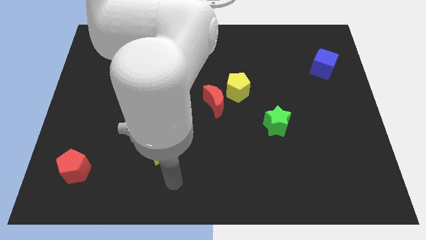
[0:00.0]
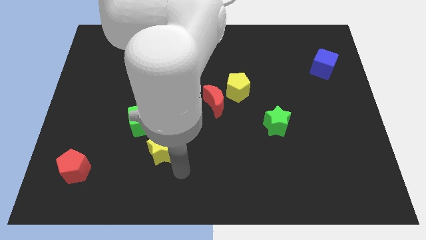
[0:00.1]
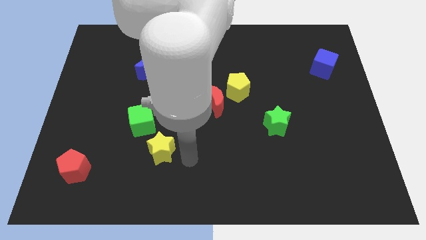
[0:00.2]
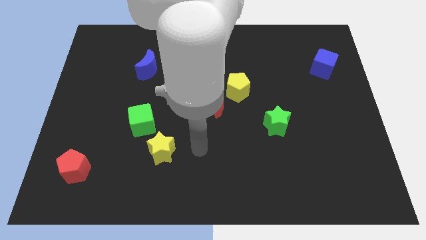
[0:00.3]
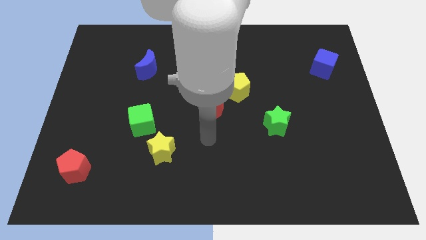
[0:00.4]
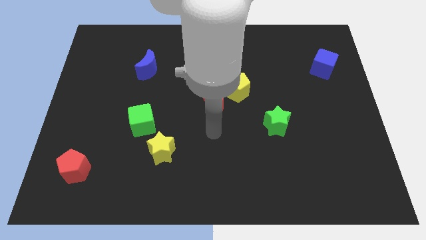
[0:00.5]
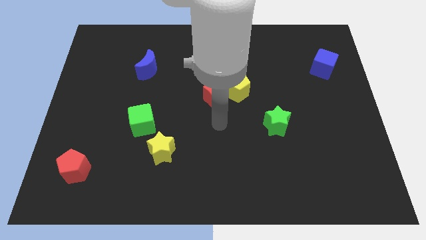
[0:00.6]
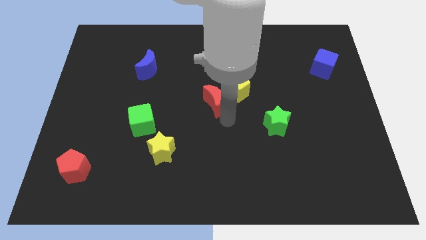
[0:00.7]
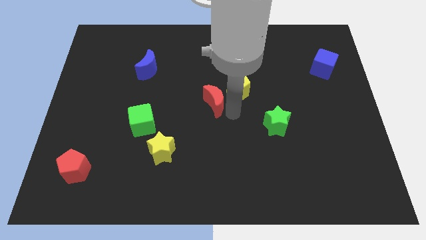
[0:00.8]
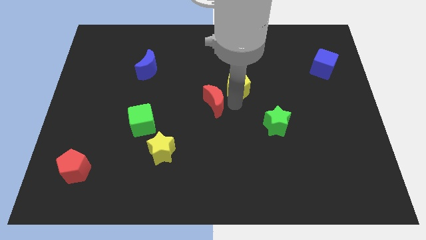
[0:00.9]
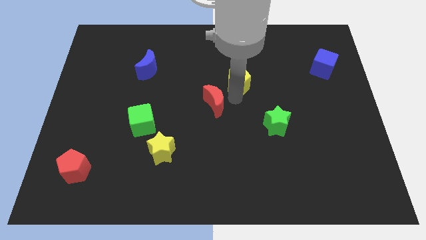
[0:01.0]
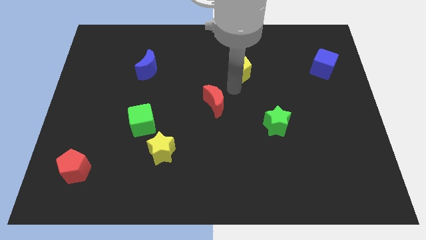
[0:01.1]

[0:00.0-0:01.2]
move the red moon away from the yellow pentagon

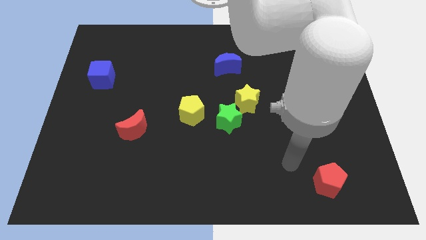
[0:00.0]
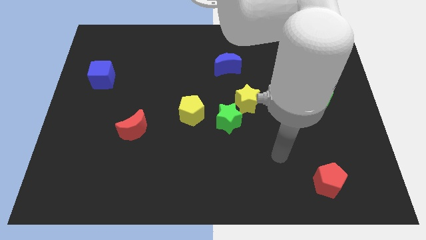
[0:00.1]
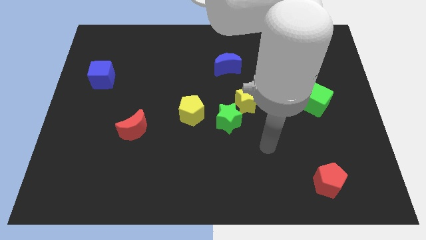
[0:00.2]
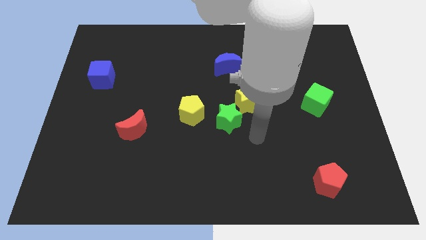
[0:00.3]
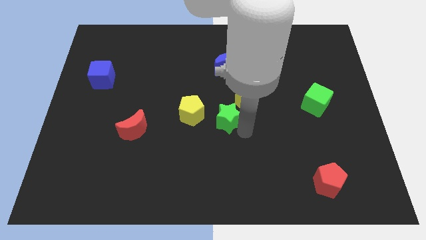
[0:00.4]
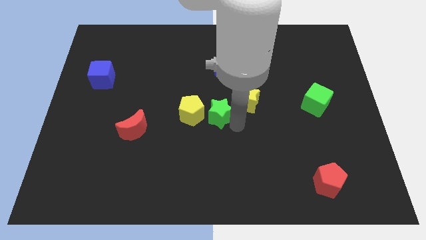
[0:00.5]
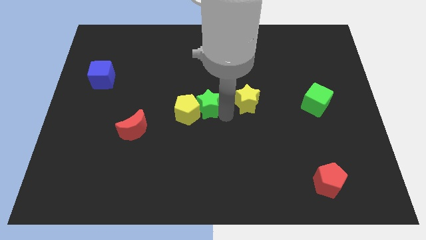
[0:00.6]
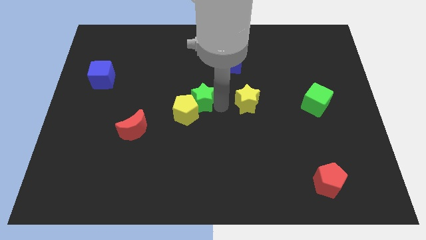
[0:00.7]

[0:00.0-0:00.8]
move the yellow star away from the green star

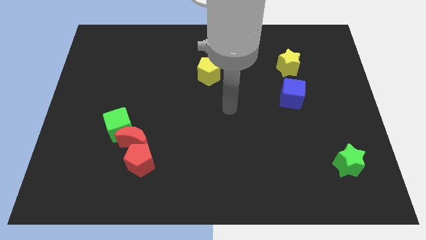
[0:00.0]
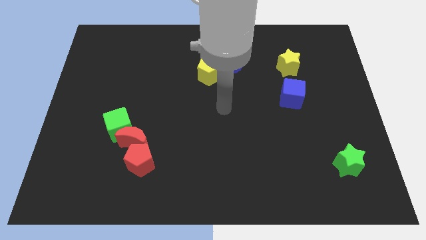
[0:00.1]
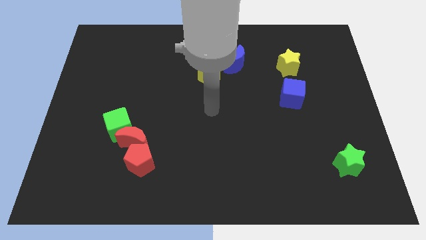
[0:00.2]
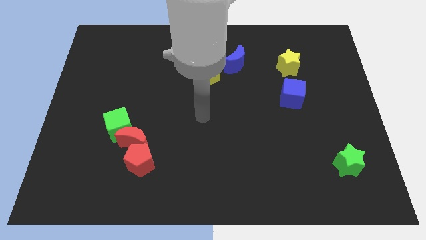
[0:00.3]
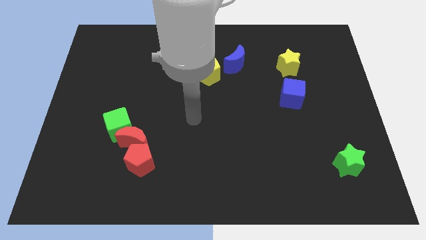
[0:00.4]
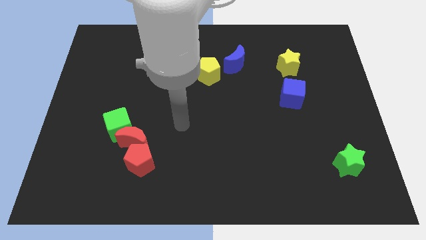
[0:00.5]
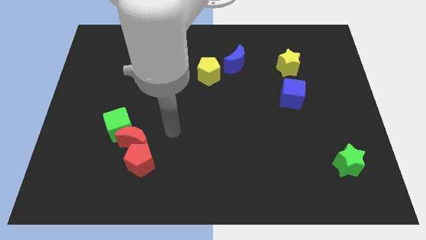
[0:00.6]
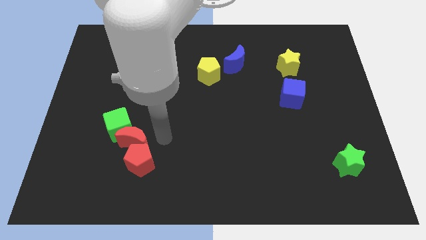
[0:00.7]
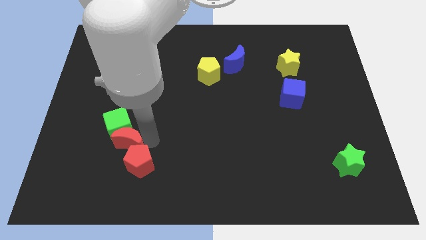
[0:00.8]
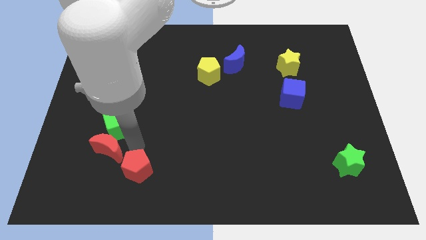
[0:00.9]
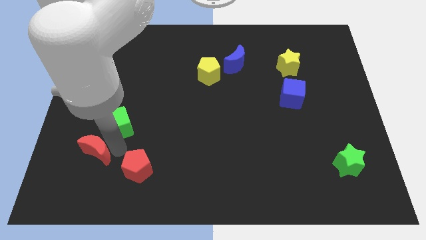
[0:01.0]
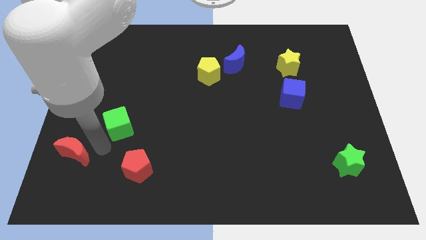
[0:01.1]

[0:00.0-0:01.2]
move the green cube away from the red moon

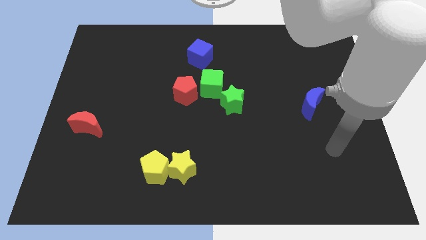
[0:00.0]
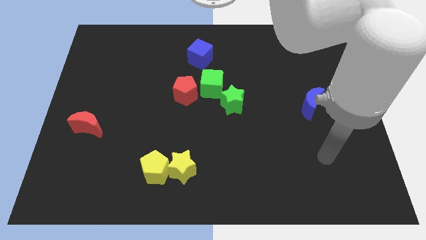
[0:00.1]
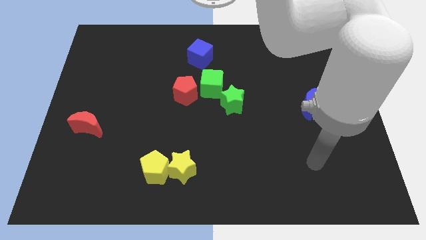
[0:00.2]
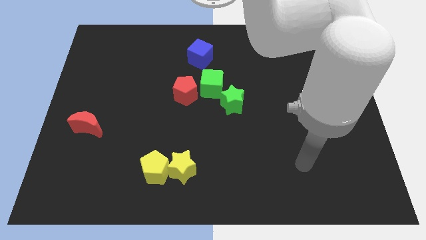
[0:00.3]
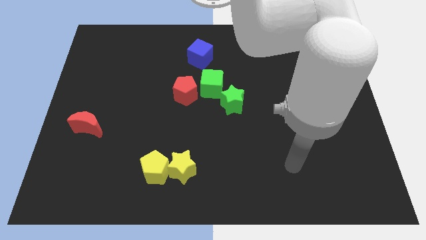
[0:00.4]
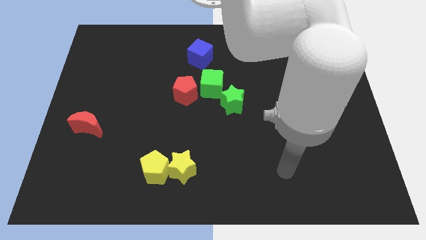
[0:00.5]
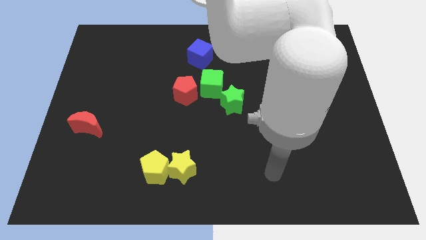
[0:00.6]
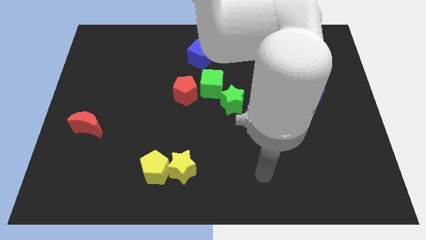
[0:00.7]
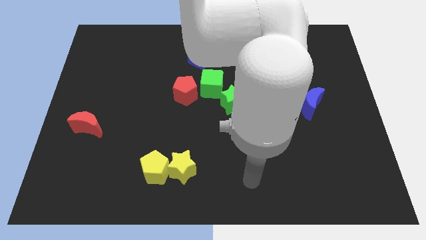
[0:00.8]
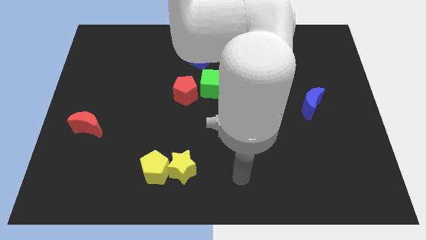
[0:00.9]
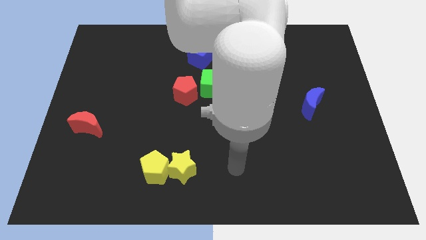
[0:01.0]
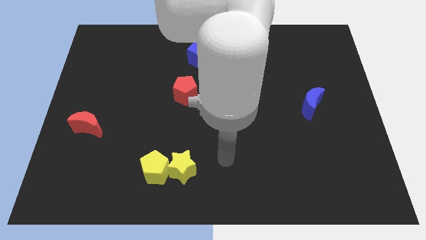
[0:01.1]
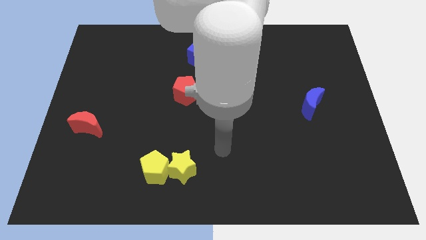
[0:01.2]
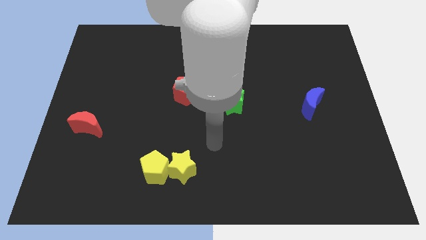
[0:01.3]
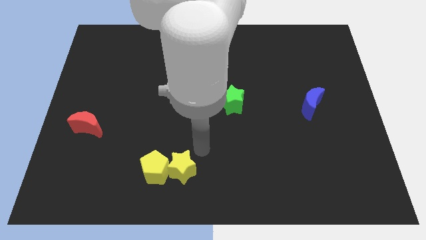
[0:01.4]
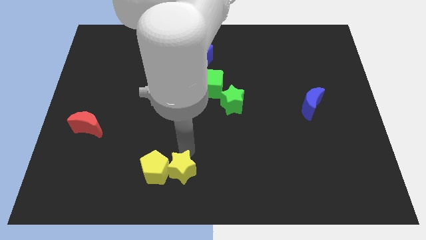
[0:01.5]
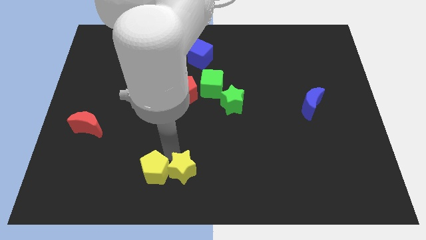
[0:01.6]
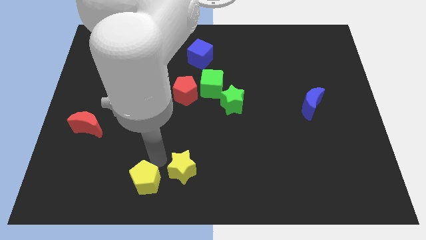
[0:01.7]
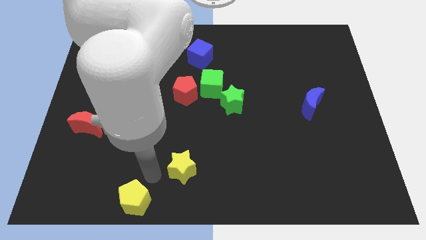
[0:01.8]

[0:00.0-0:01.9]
separate the yellow star from the yellow pentagon

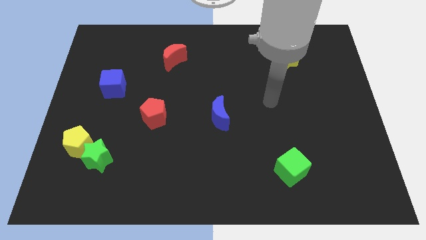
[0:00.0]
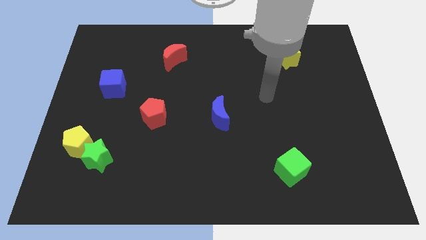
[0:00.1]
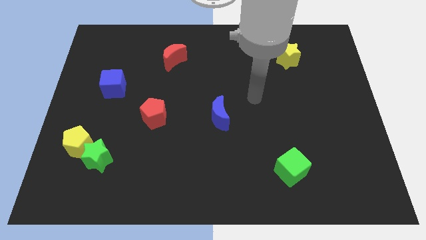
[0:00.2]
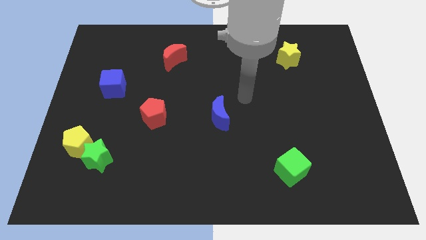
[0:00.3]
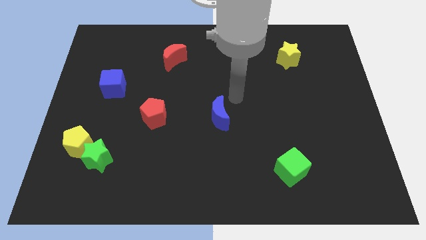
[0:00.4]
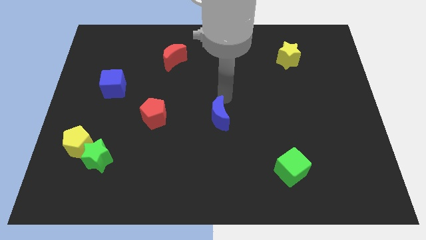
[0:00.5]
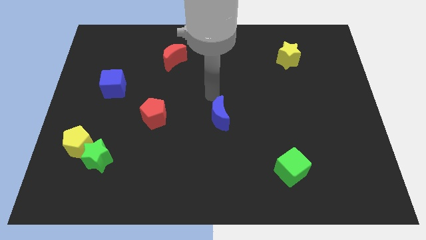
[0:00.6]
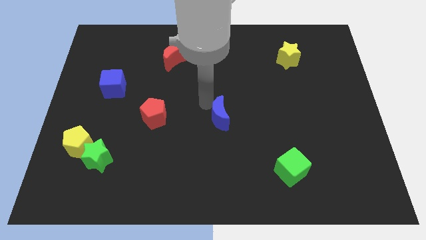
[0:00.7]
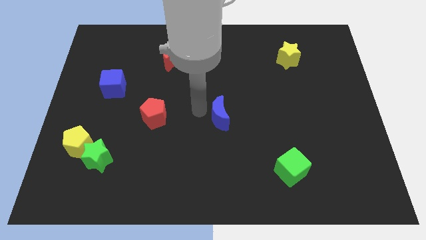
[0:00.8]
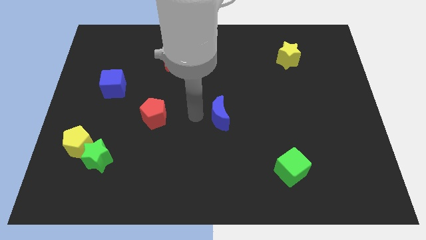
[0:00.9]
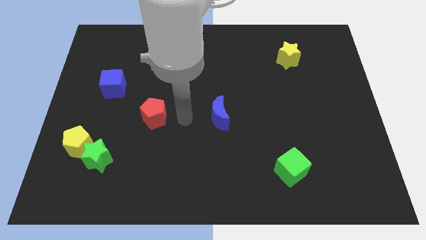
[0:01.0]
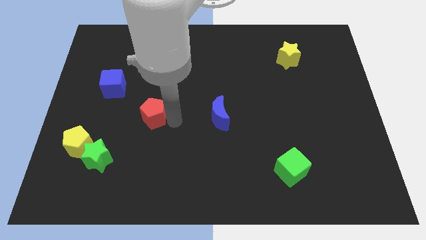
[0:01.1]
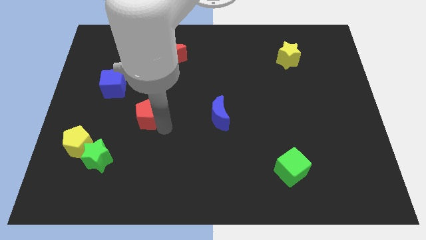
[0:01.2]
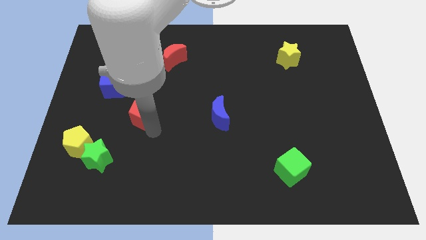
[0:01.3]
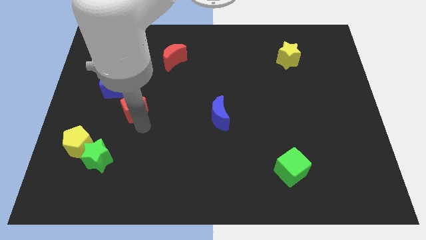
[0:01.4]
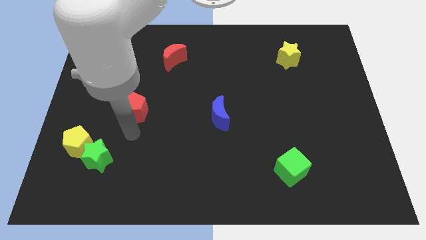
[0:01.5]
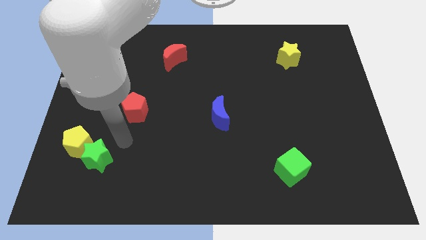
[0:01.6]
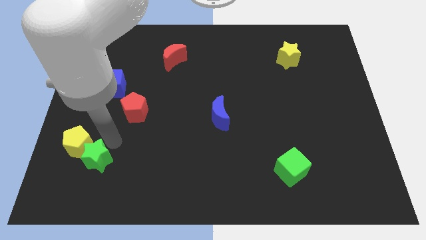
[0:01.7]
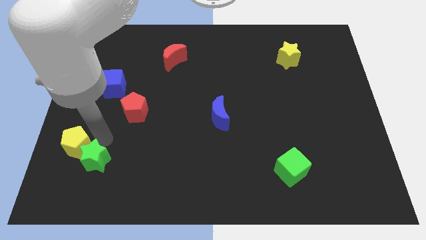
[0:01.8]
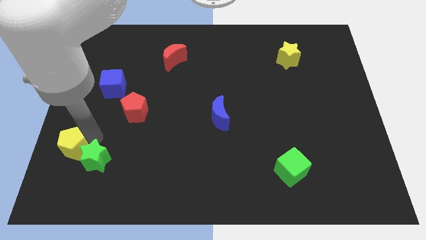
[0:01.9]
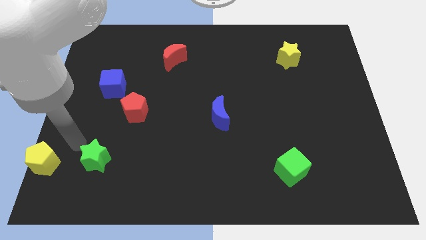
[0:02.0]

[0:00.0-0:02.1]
move the green star away from the yellow pentagon

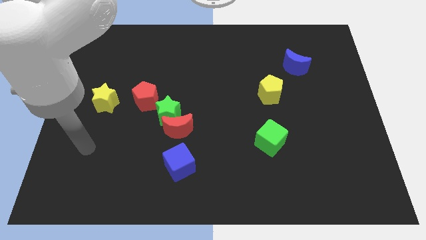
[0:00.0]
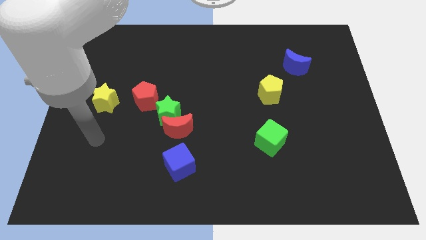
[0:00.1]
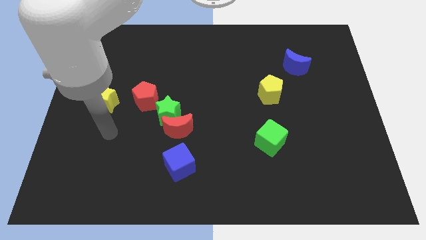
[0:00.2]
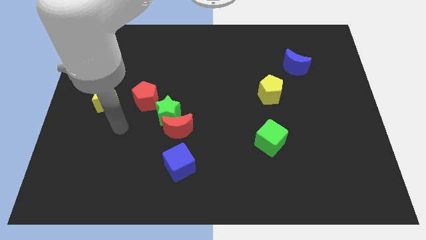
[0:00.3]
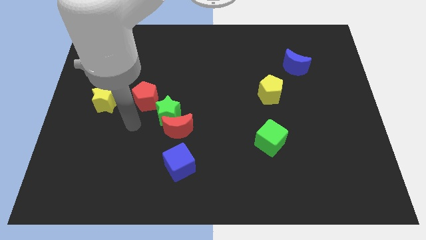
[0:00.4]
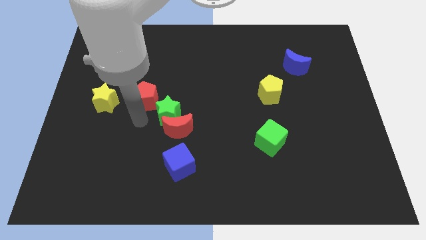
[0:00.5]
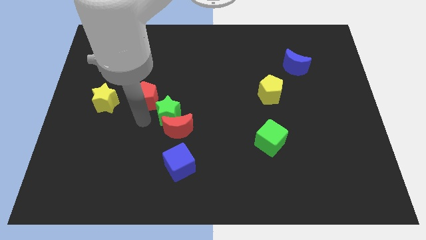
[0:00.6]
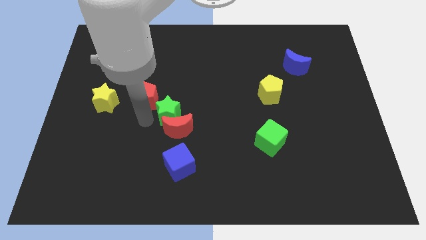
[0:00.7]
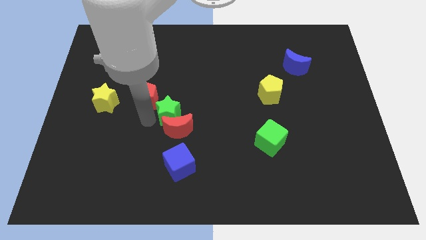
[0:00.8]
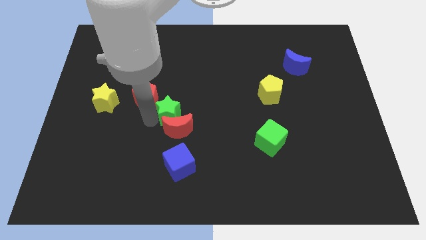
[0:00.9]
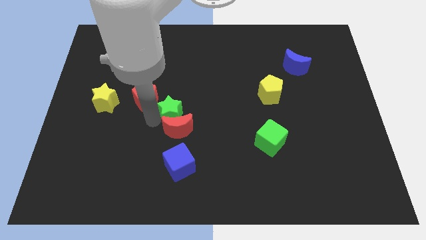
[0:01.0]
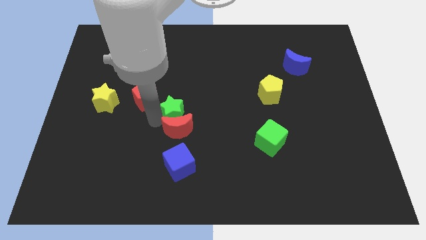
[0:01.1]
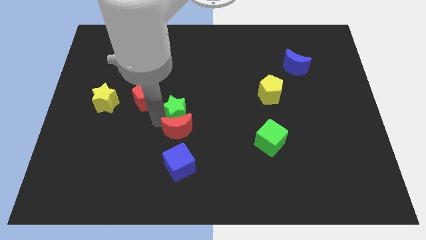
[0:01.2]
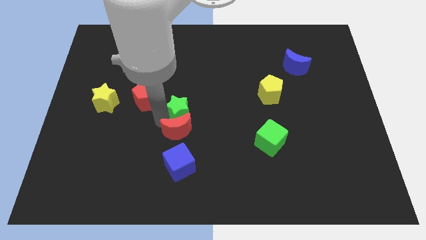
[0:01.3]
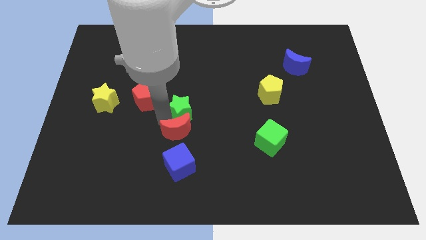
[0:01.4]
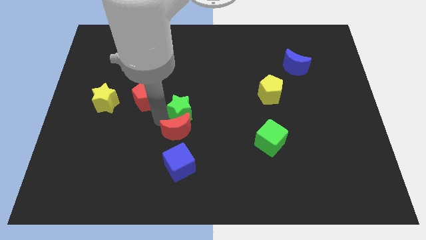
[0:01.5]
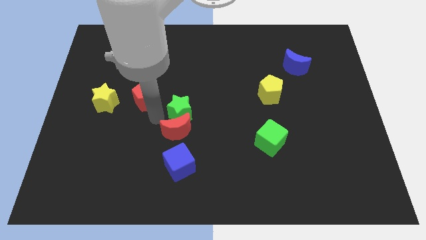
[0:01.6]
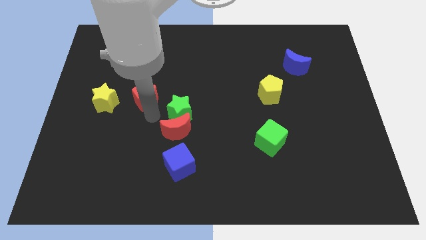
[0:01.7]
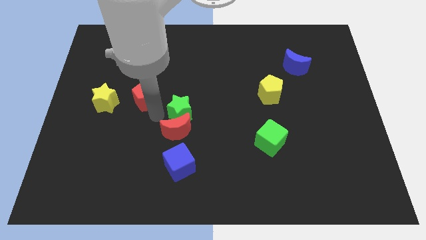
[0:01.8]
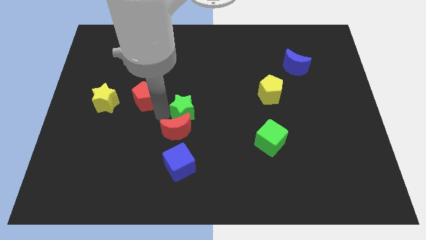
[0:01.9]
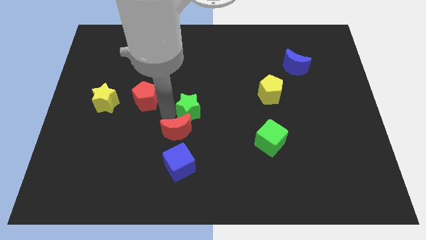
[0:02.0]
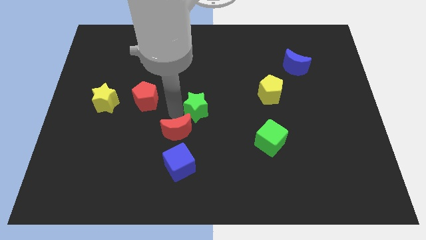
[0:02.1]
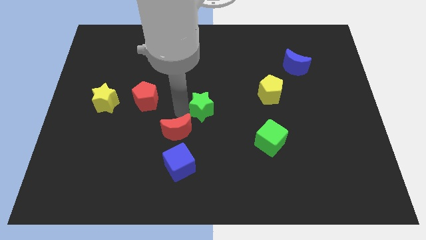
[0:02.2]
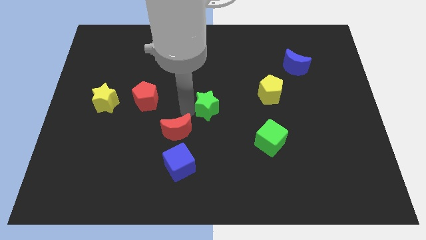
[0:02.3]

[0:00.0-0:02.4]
separate the green star from the red moon and red pentagon
